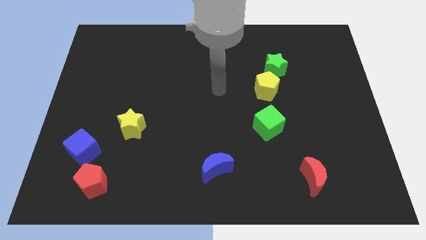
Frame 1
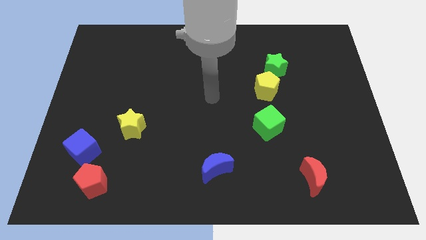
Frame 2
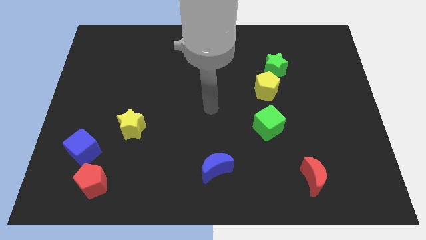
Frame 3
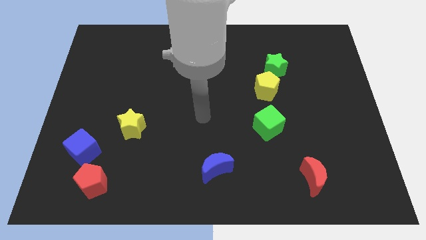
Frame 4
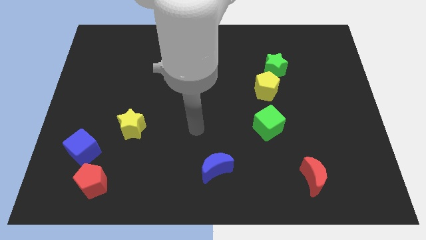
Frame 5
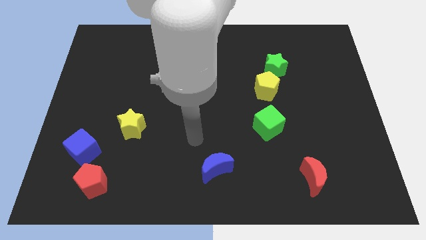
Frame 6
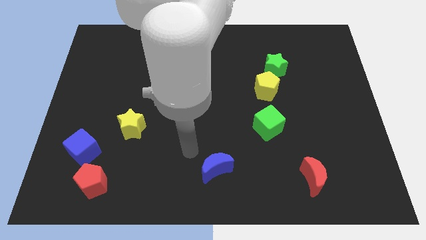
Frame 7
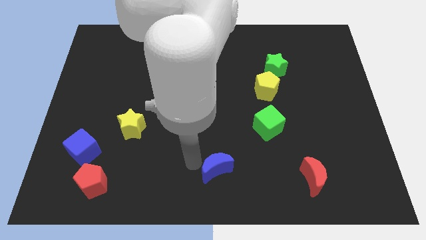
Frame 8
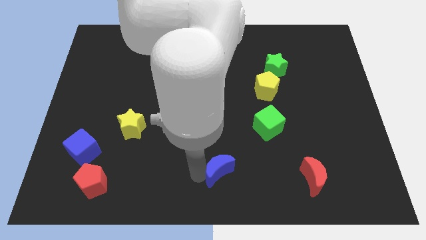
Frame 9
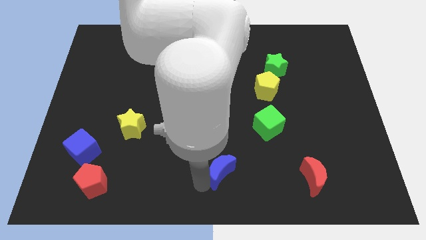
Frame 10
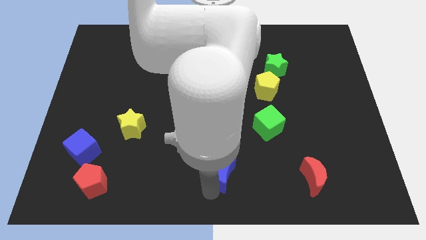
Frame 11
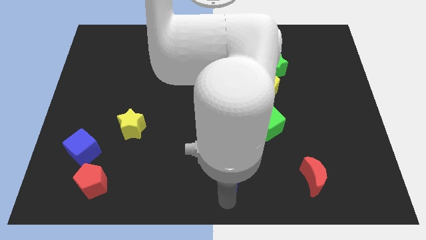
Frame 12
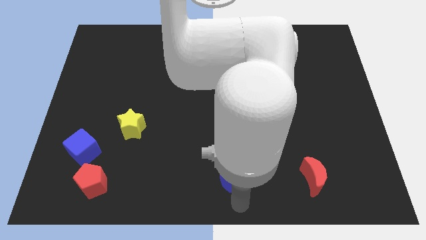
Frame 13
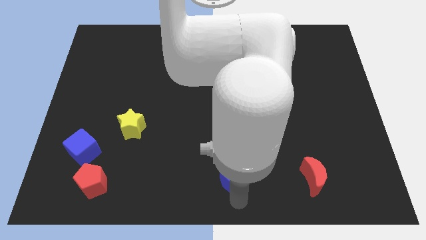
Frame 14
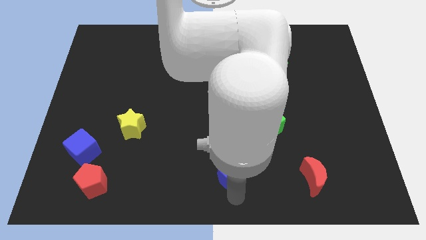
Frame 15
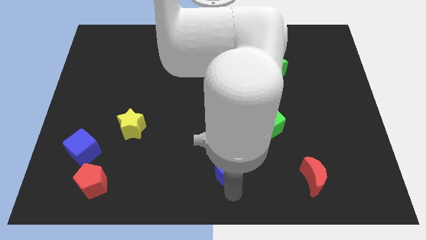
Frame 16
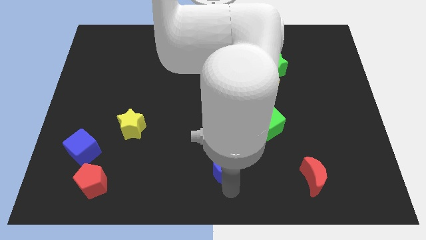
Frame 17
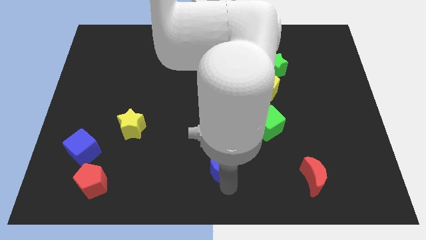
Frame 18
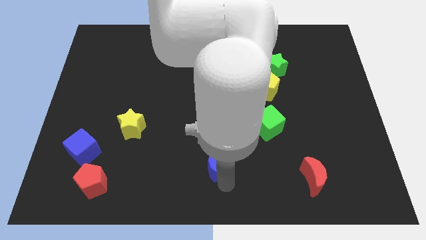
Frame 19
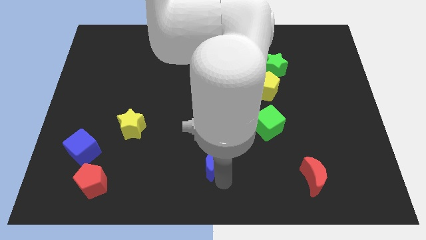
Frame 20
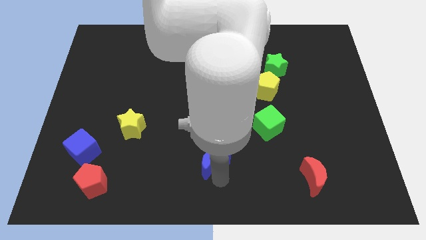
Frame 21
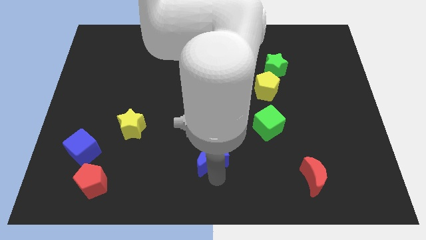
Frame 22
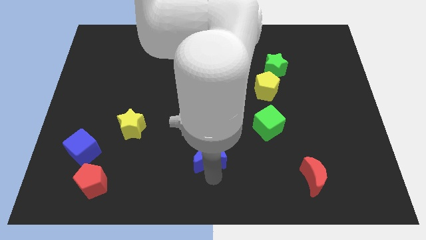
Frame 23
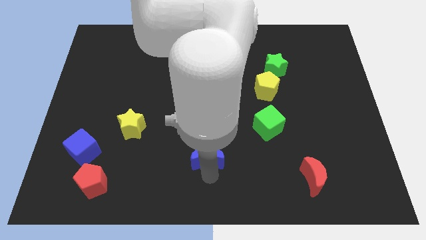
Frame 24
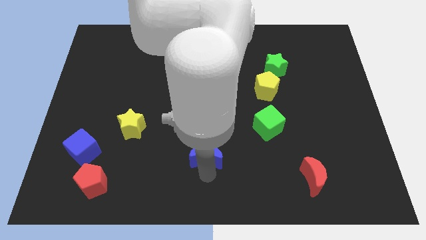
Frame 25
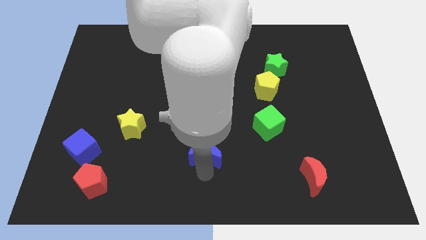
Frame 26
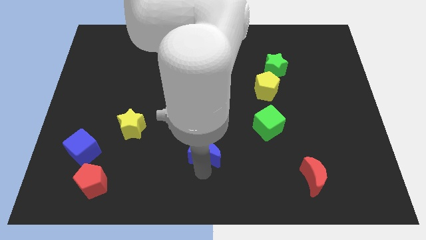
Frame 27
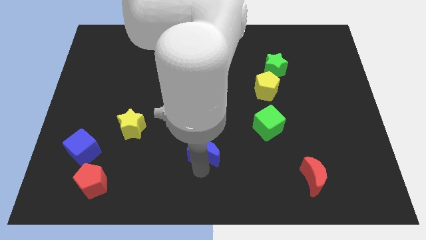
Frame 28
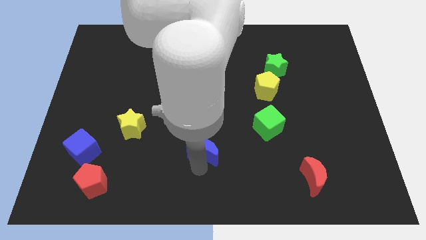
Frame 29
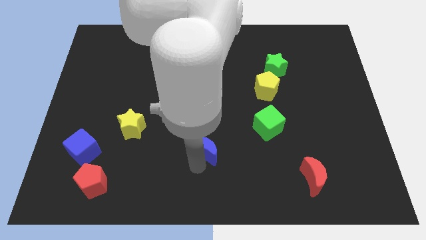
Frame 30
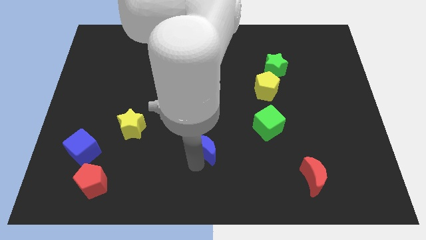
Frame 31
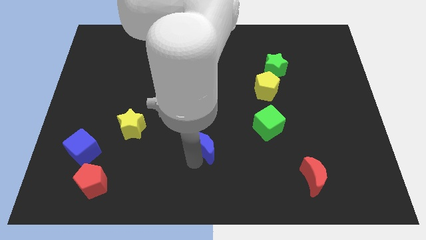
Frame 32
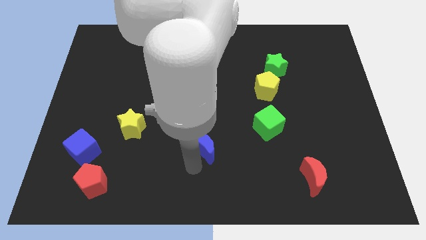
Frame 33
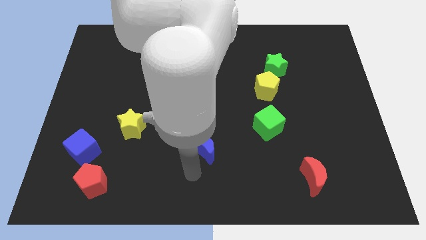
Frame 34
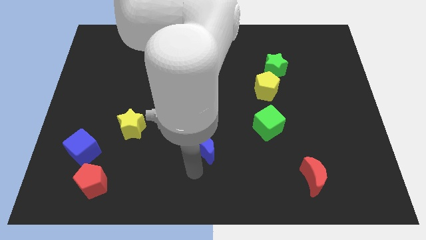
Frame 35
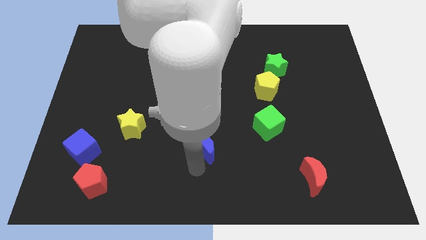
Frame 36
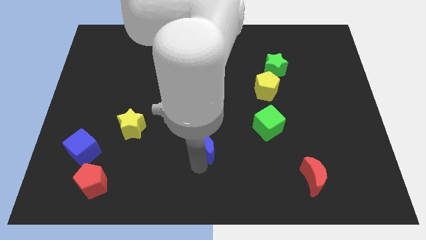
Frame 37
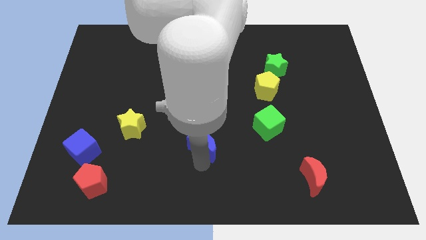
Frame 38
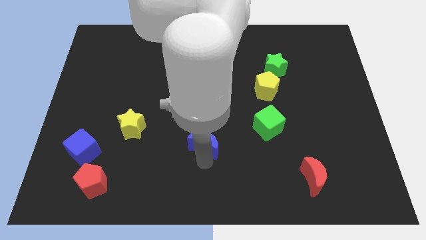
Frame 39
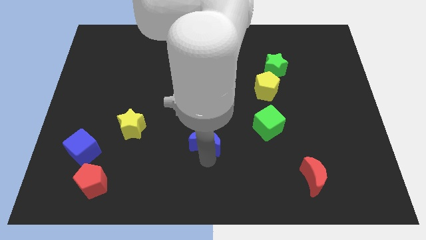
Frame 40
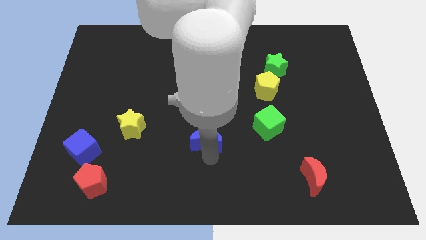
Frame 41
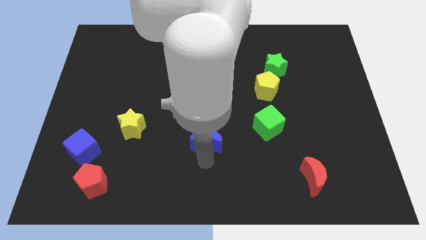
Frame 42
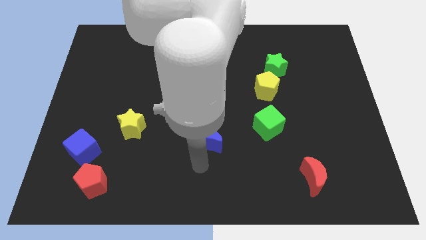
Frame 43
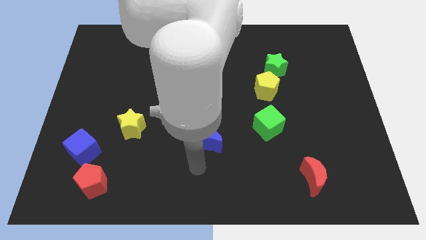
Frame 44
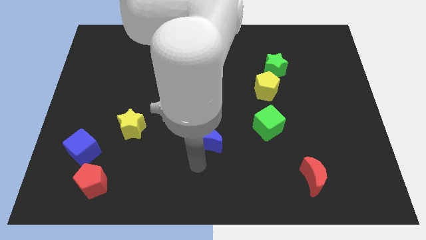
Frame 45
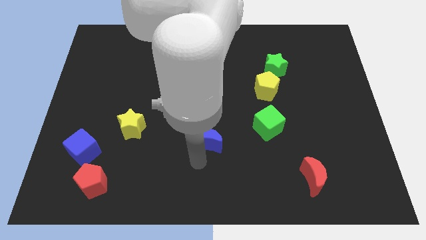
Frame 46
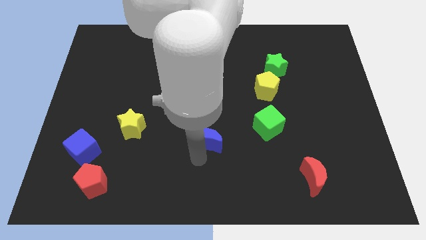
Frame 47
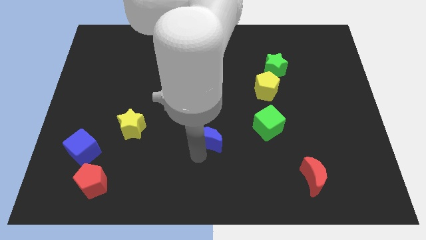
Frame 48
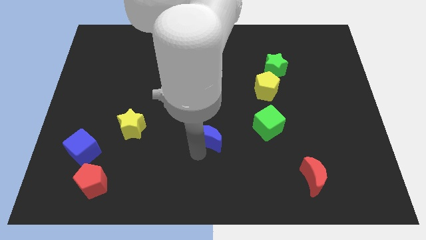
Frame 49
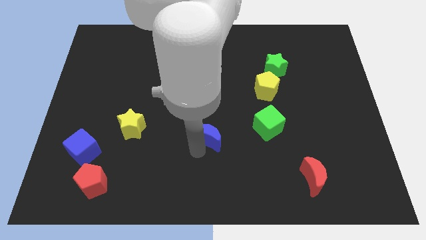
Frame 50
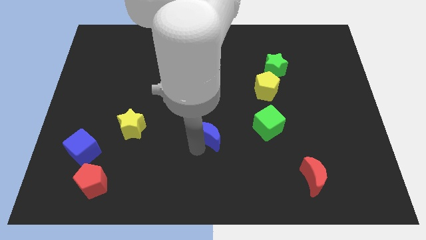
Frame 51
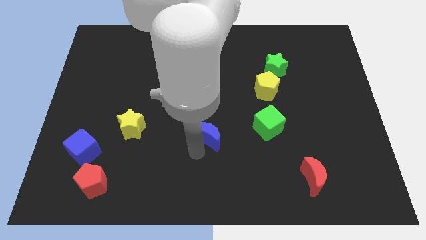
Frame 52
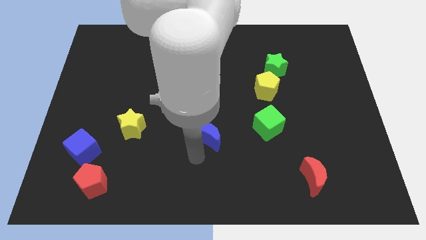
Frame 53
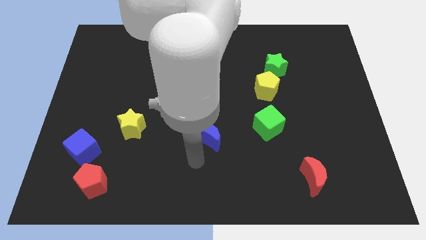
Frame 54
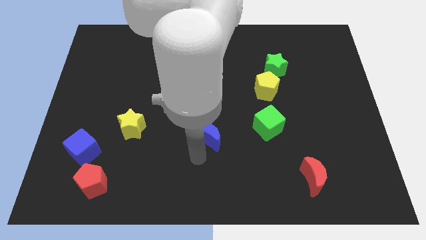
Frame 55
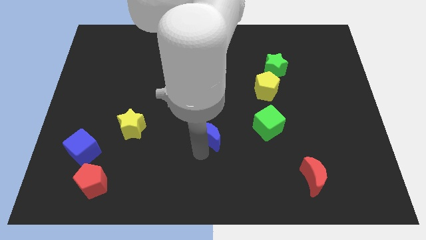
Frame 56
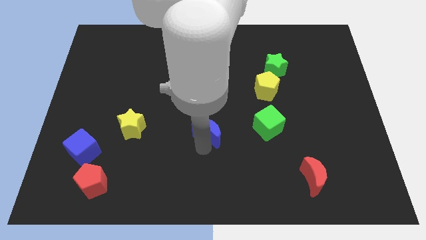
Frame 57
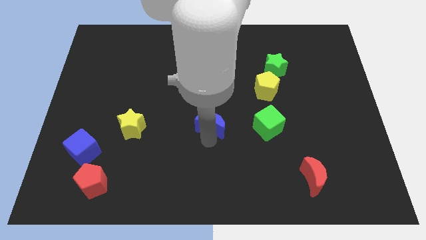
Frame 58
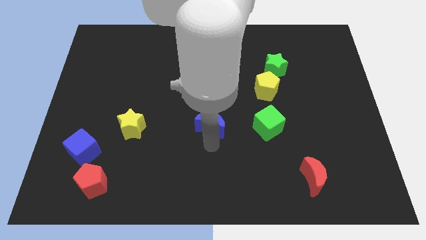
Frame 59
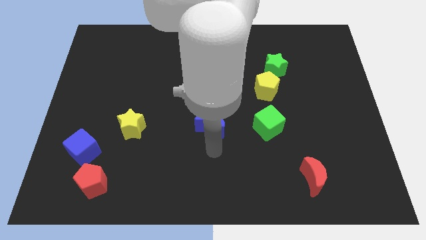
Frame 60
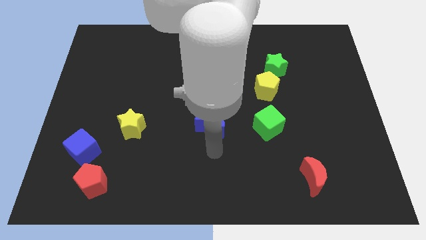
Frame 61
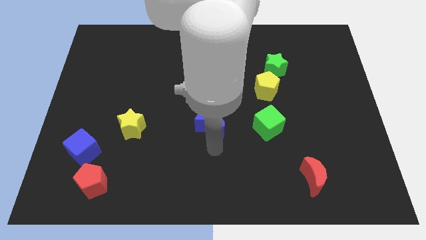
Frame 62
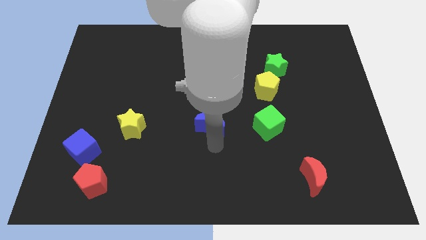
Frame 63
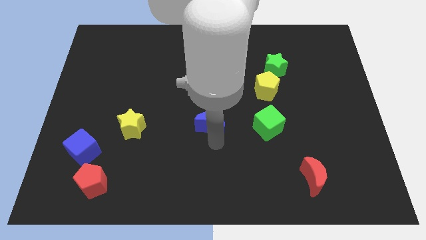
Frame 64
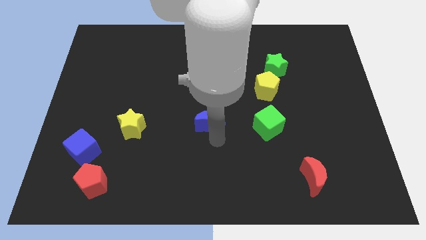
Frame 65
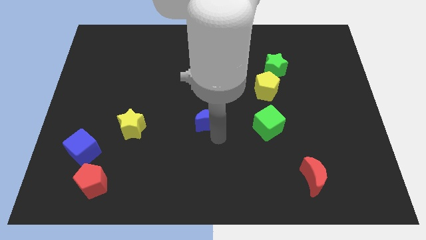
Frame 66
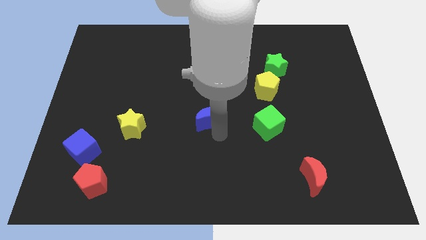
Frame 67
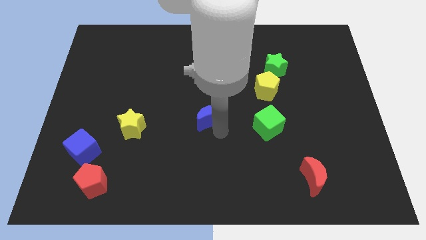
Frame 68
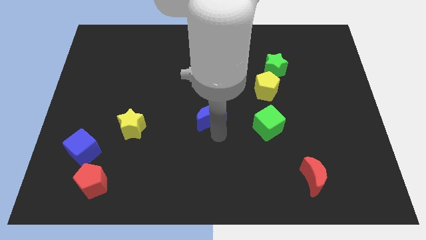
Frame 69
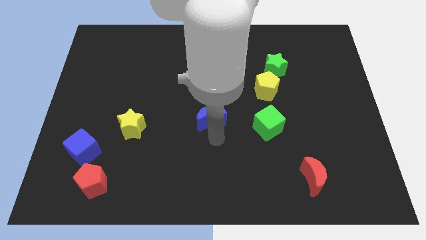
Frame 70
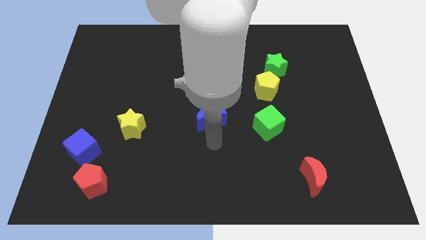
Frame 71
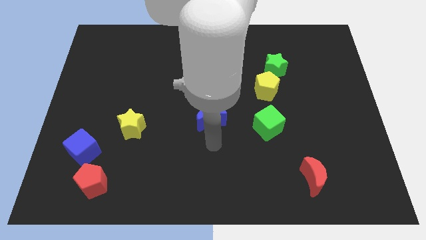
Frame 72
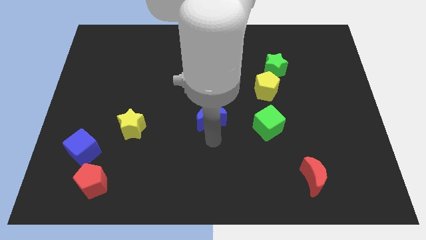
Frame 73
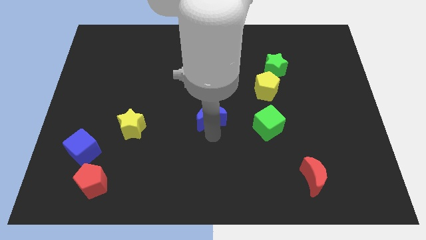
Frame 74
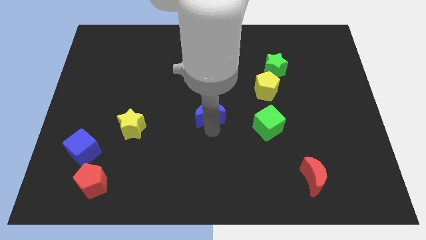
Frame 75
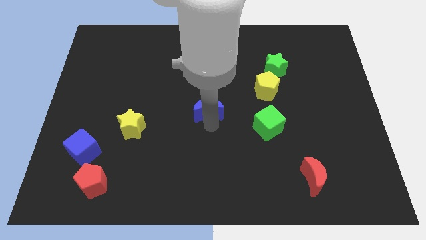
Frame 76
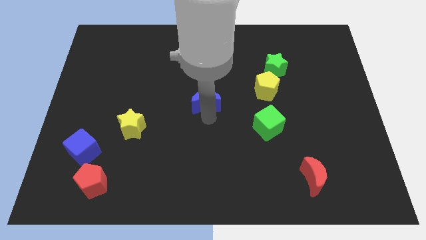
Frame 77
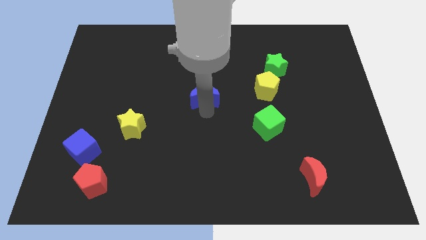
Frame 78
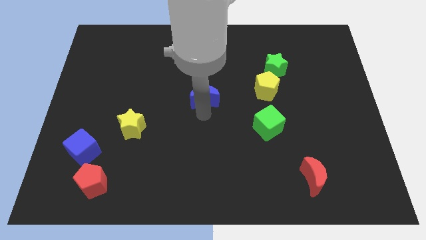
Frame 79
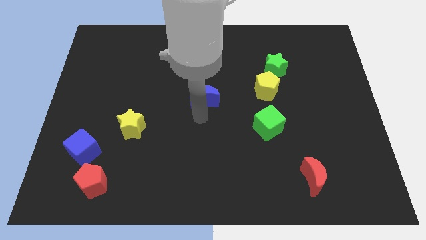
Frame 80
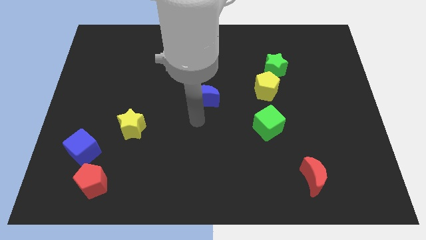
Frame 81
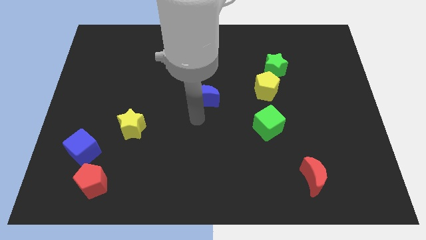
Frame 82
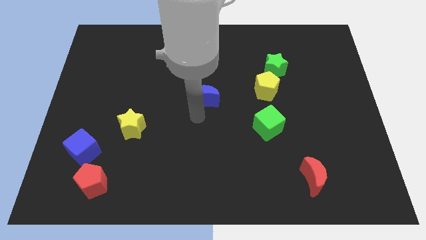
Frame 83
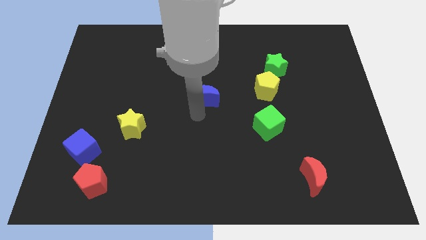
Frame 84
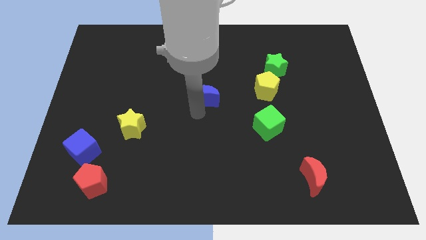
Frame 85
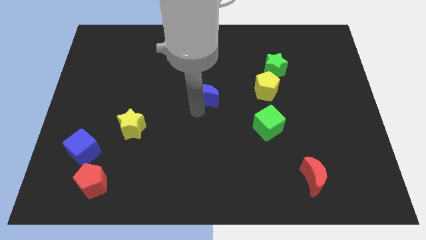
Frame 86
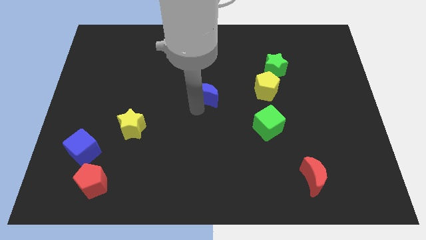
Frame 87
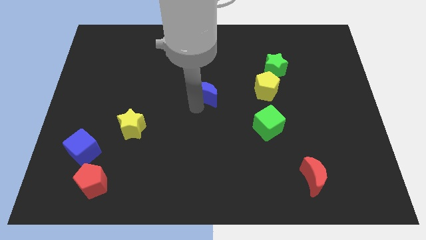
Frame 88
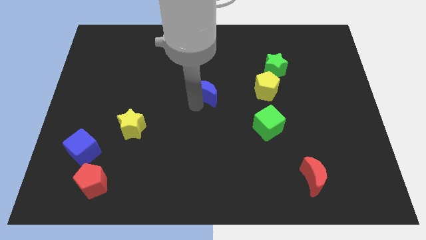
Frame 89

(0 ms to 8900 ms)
slide the blue moon up
